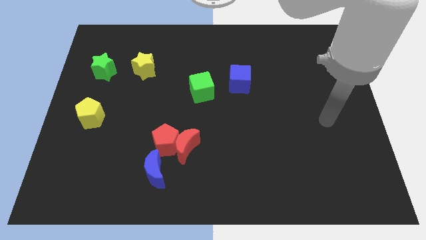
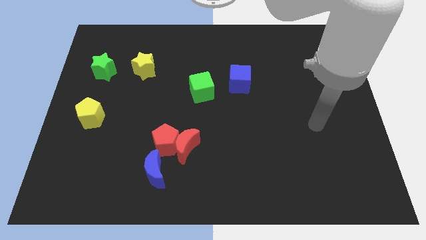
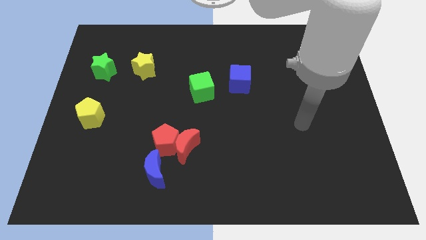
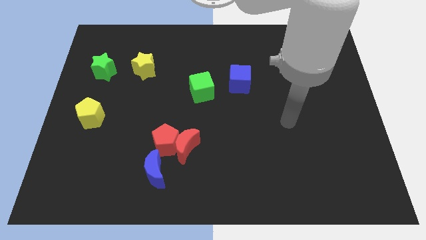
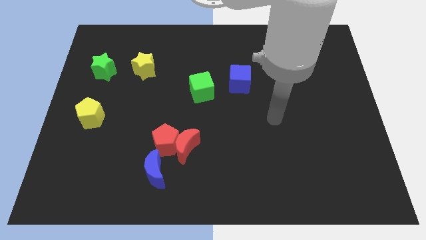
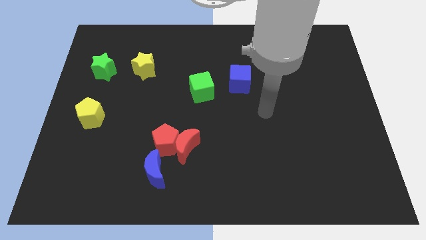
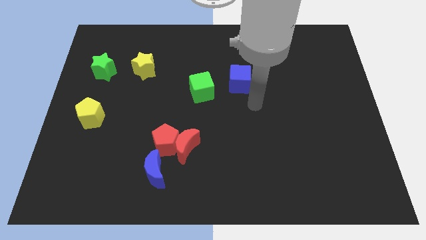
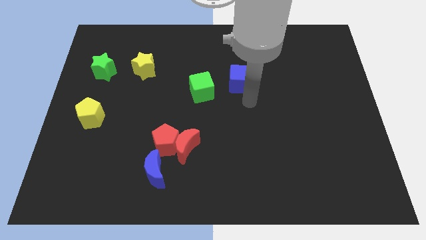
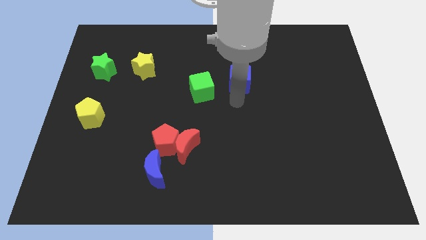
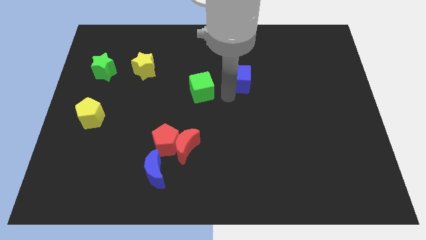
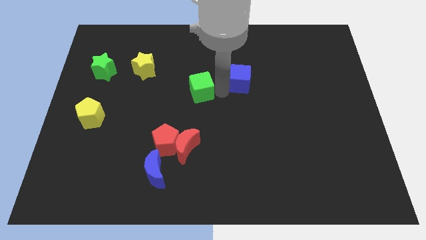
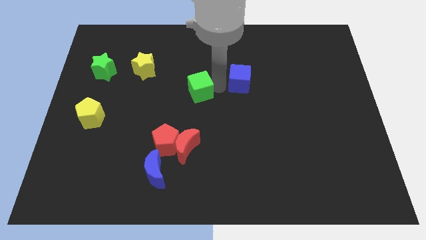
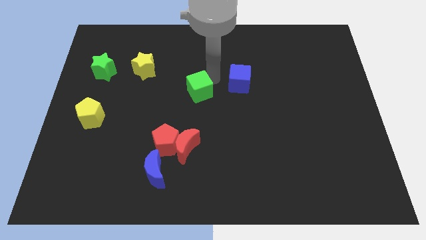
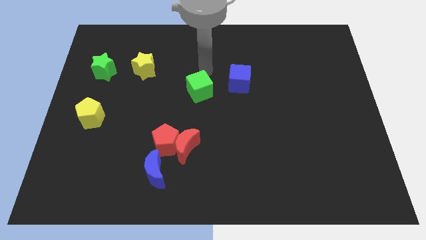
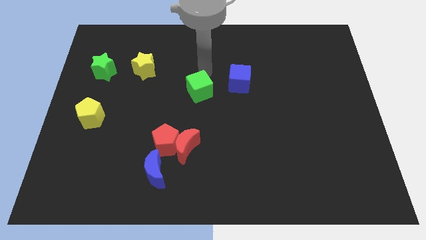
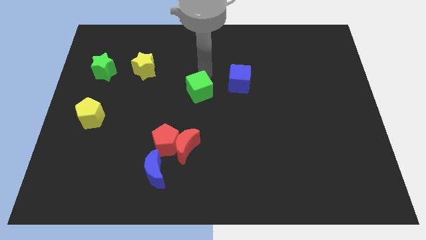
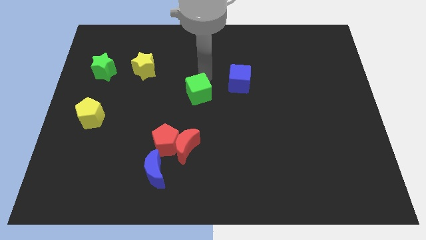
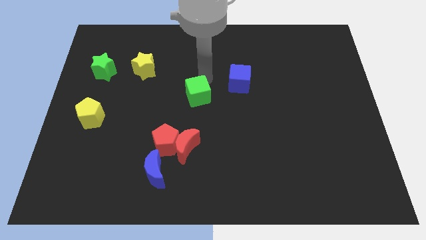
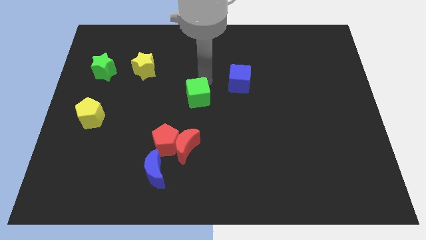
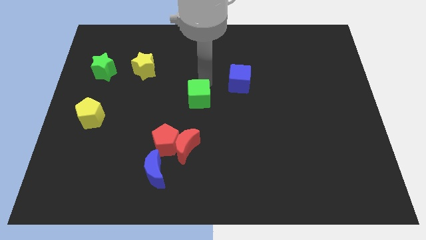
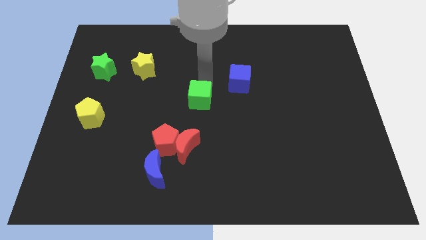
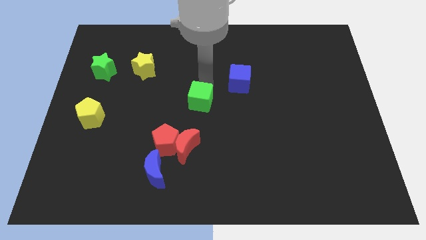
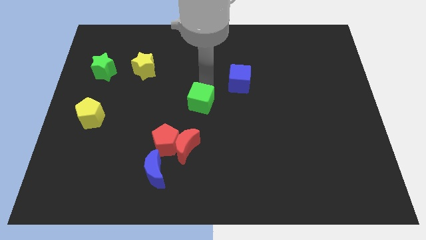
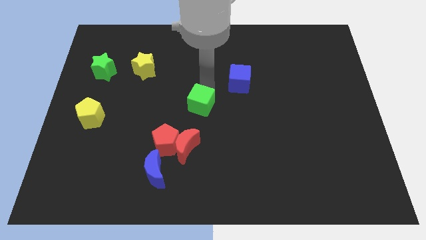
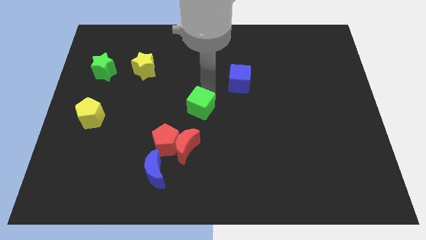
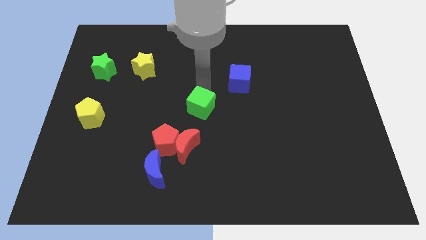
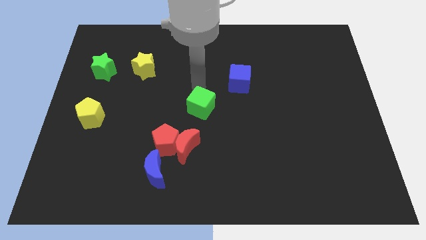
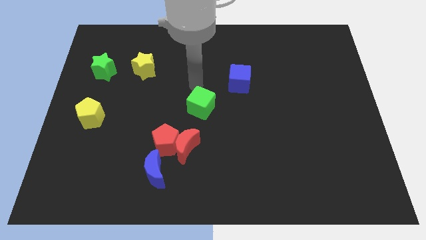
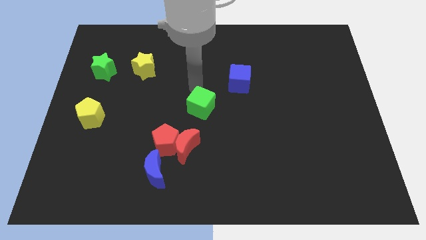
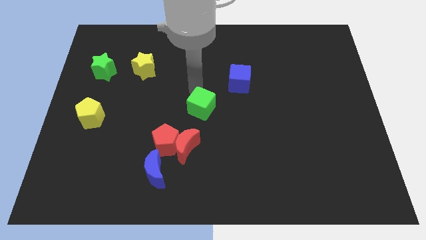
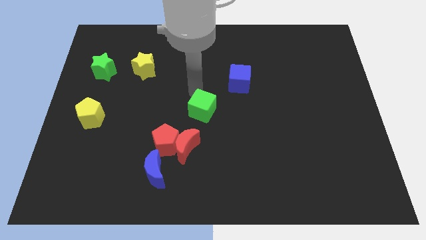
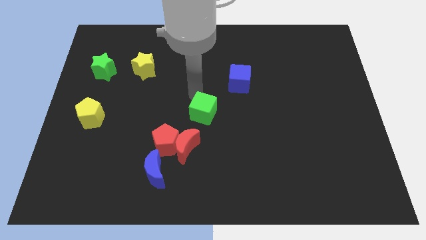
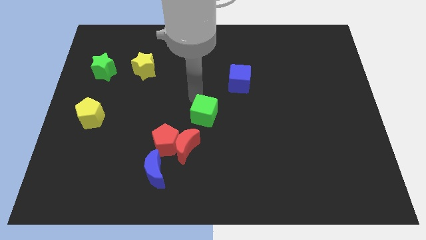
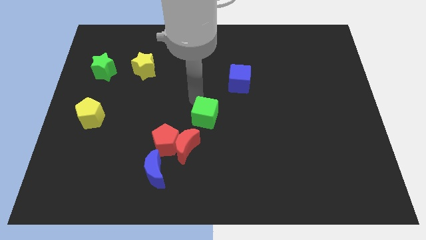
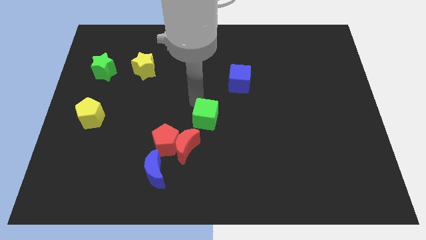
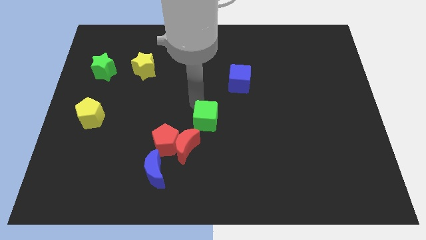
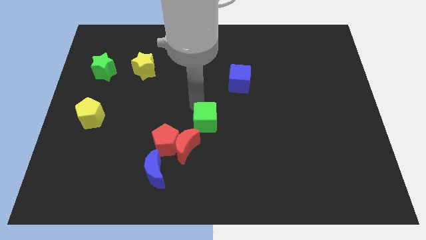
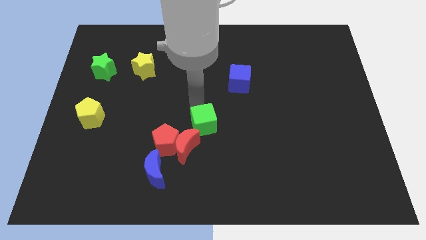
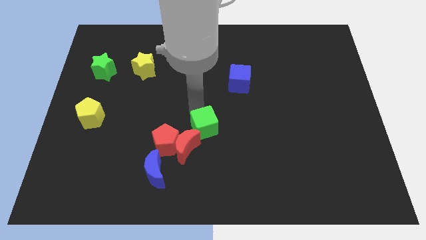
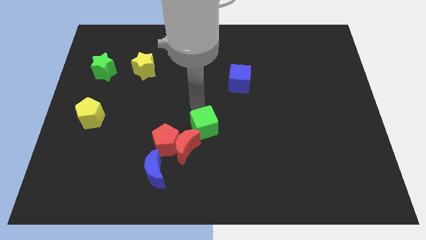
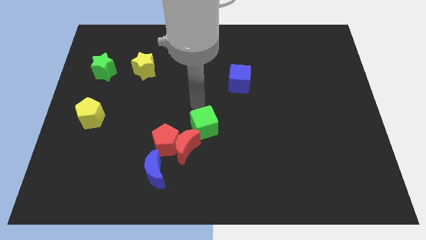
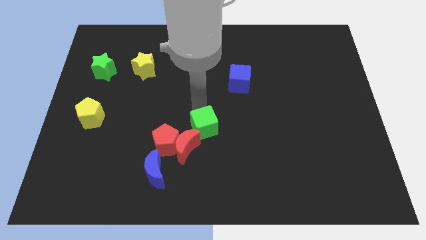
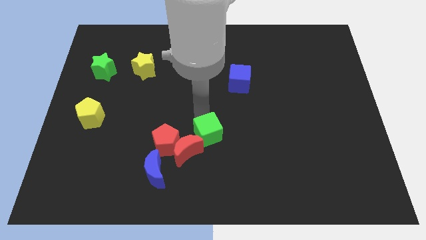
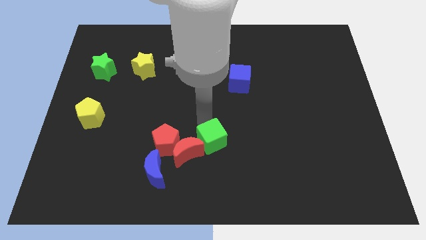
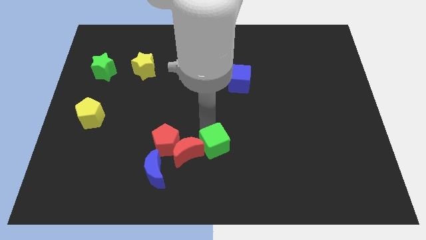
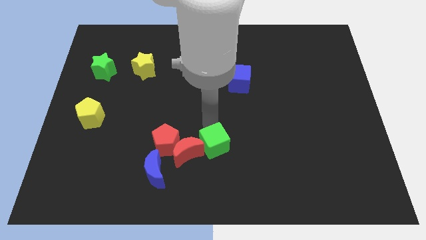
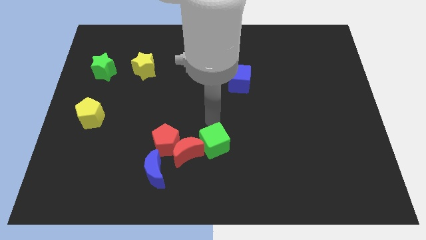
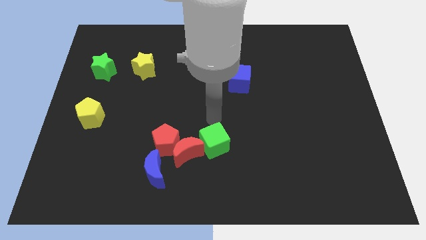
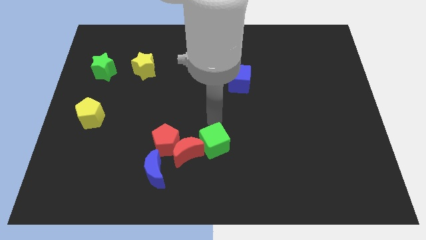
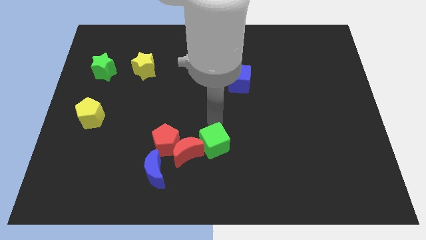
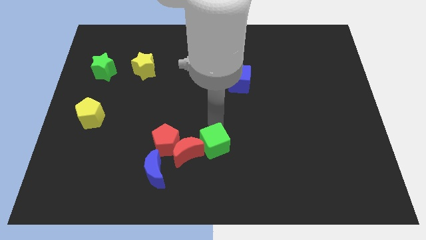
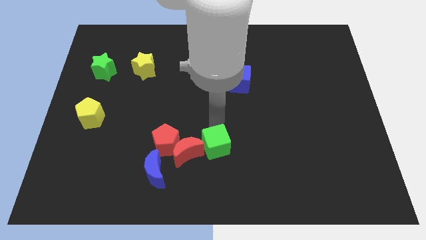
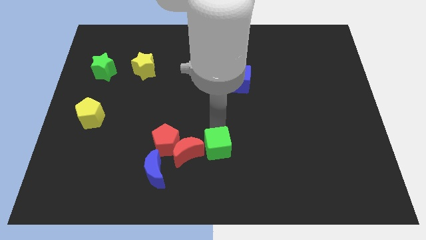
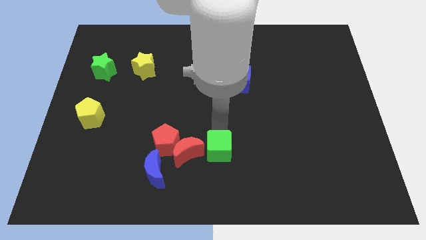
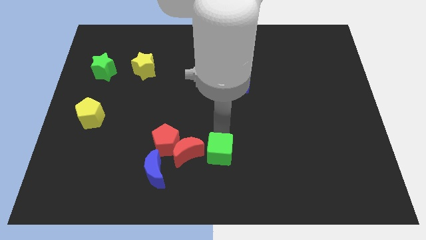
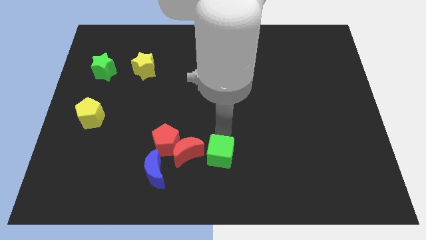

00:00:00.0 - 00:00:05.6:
move the green cube to the bottom side
